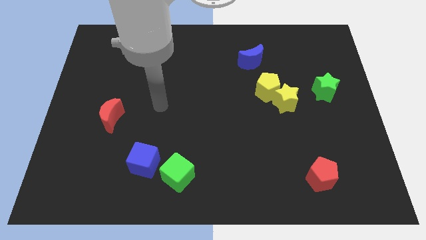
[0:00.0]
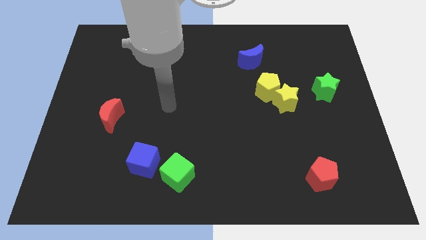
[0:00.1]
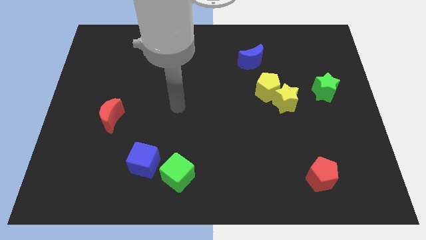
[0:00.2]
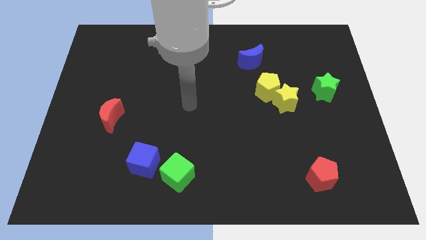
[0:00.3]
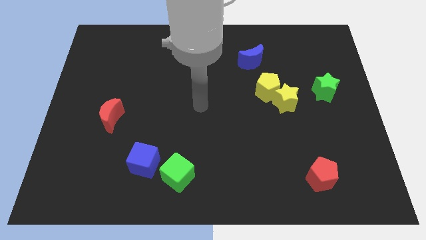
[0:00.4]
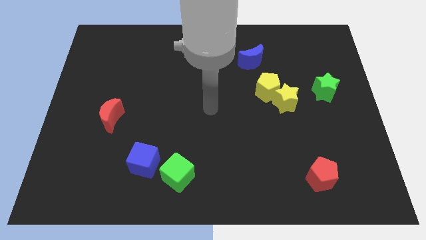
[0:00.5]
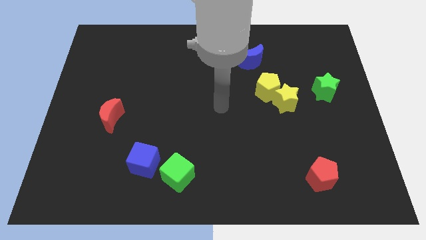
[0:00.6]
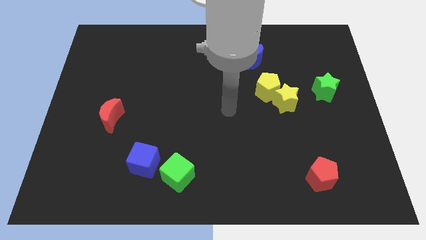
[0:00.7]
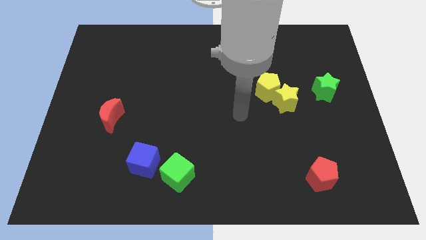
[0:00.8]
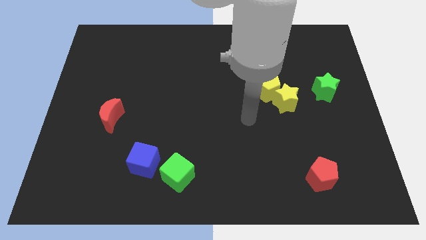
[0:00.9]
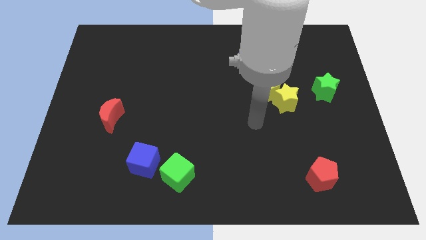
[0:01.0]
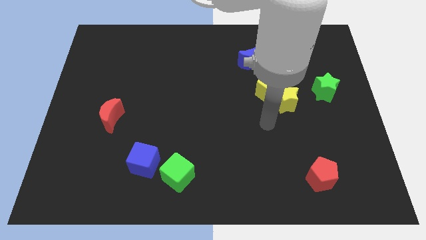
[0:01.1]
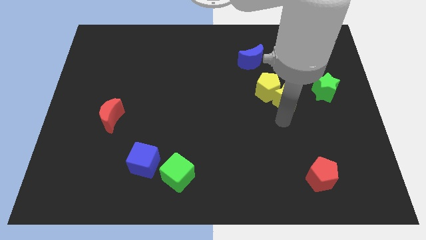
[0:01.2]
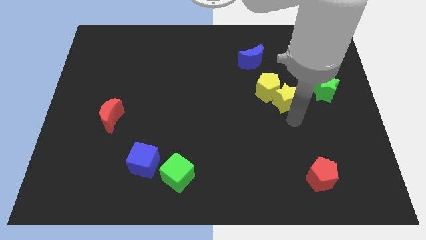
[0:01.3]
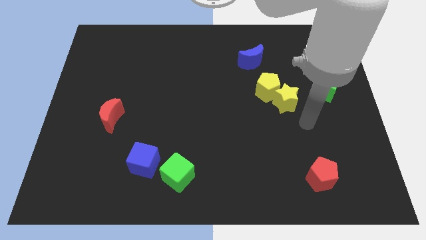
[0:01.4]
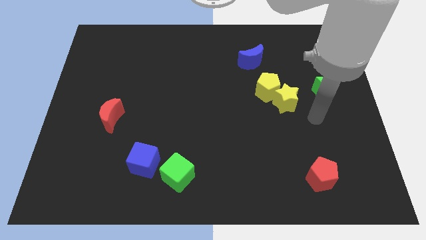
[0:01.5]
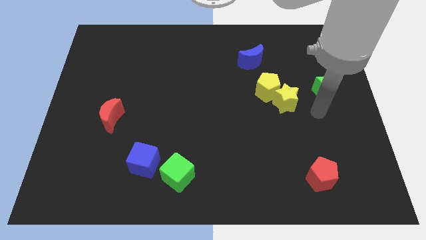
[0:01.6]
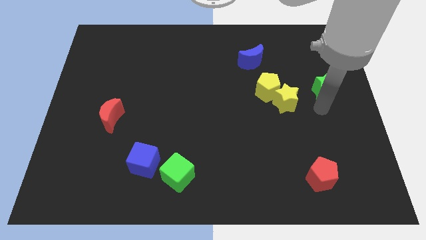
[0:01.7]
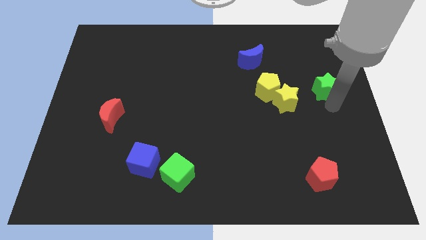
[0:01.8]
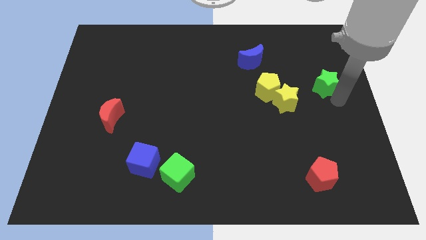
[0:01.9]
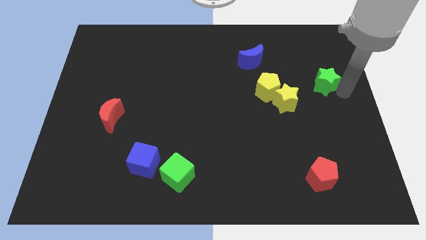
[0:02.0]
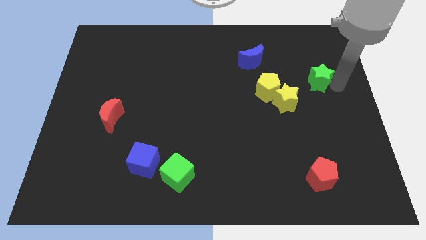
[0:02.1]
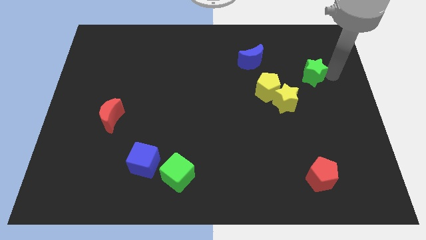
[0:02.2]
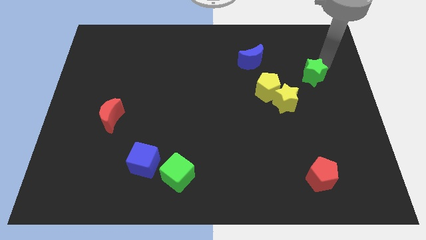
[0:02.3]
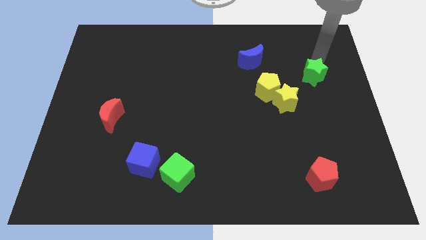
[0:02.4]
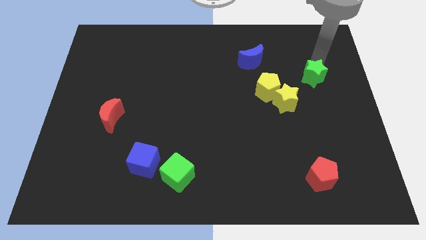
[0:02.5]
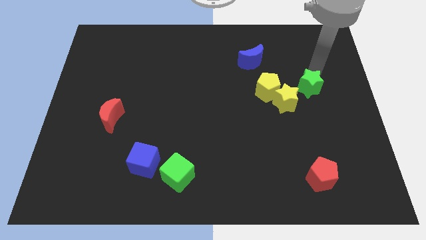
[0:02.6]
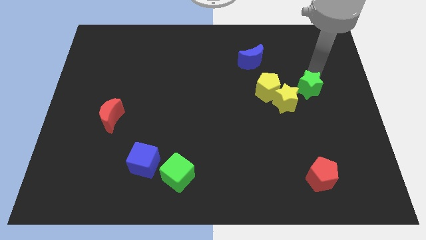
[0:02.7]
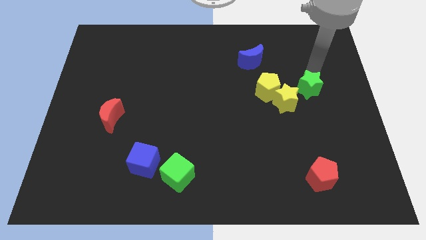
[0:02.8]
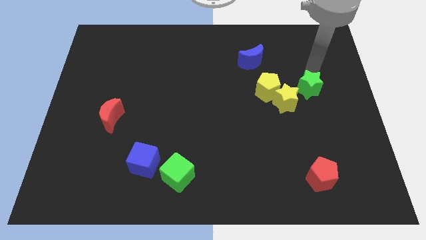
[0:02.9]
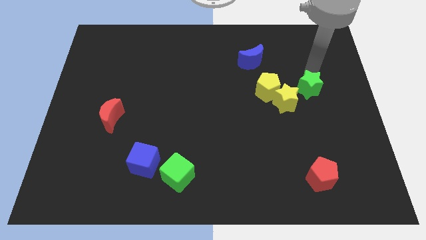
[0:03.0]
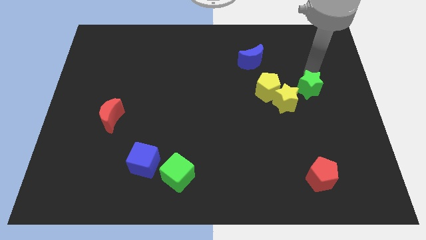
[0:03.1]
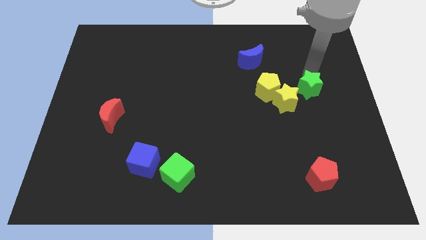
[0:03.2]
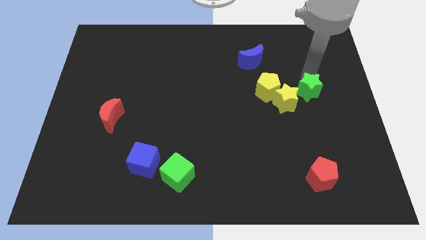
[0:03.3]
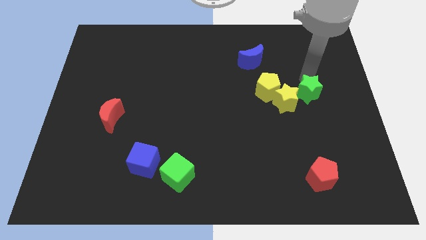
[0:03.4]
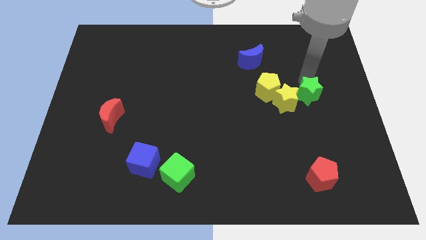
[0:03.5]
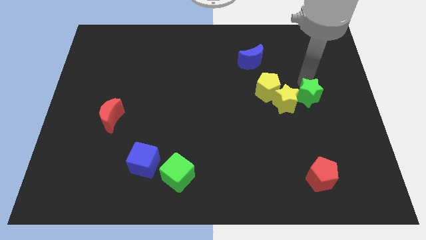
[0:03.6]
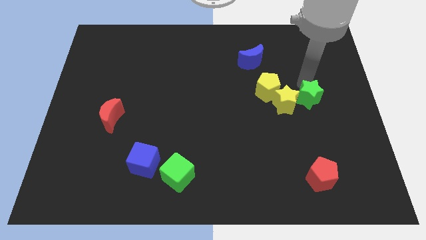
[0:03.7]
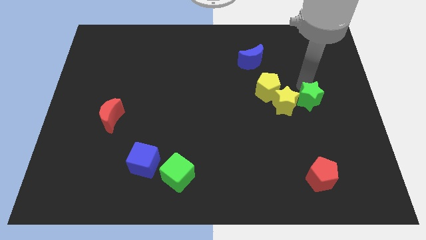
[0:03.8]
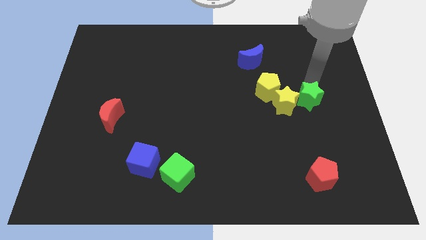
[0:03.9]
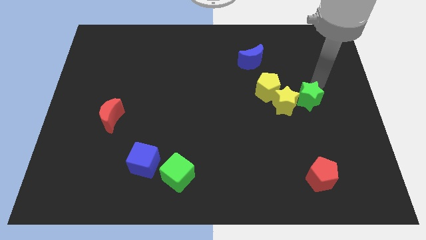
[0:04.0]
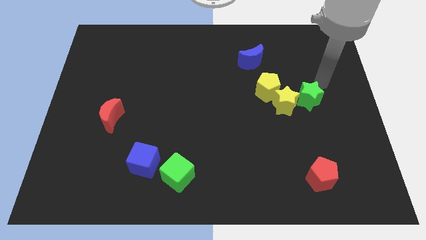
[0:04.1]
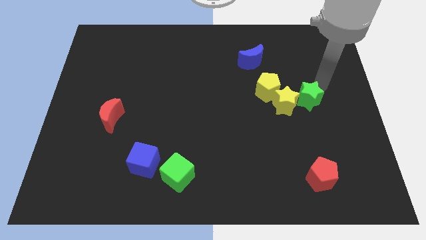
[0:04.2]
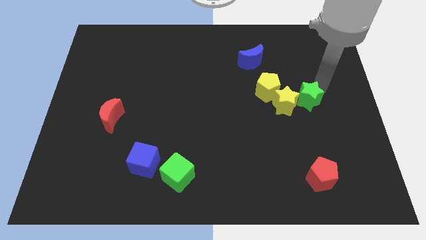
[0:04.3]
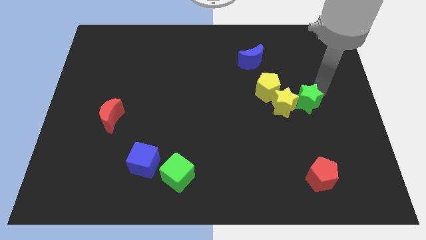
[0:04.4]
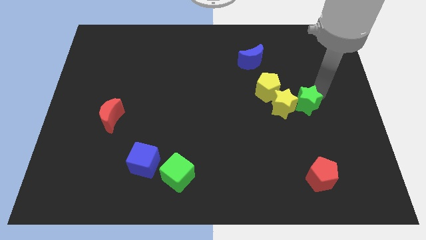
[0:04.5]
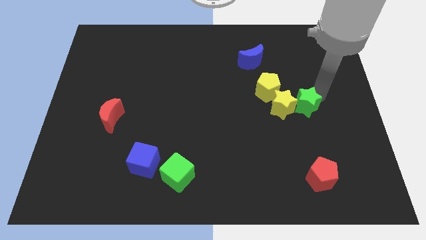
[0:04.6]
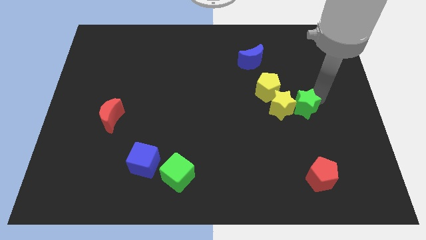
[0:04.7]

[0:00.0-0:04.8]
move the green star a little down and left

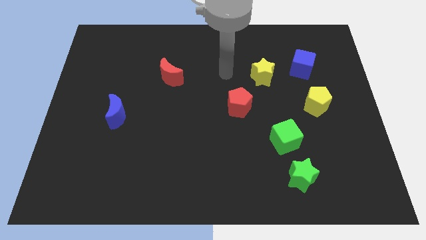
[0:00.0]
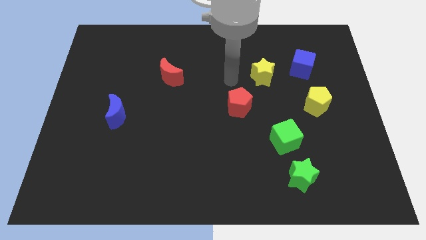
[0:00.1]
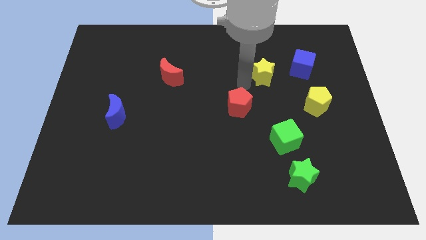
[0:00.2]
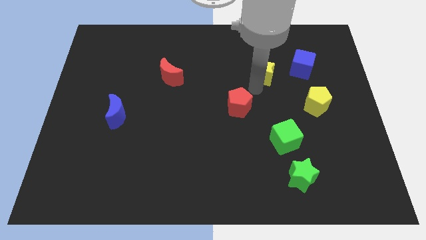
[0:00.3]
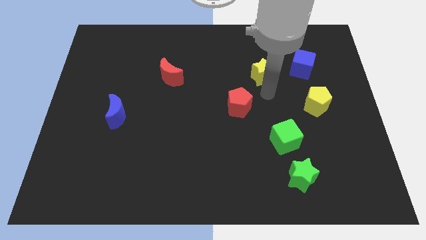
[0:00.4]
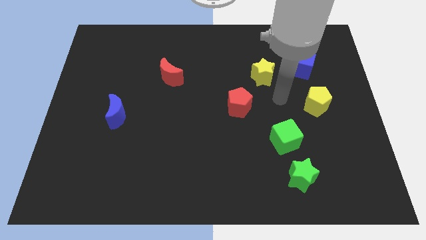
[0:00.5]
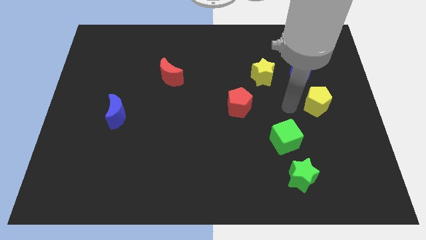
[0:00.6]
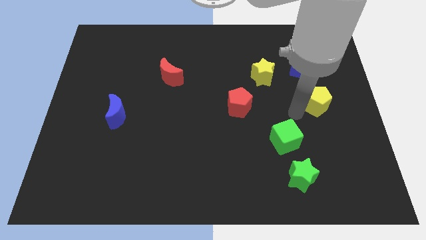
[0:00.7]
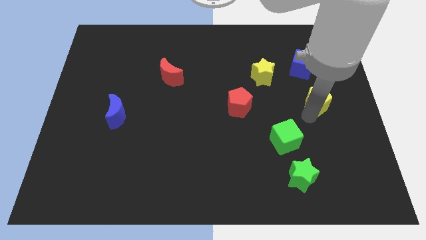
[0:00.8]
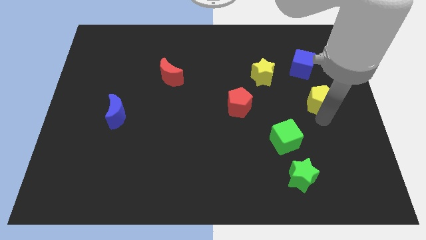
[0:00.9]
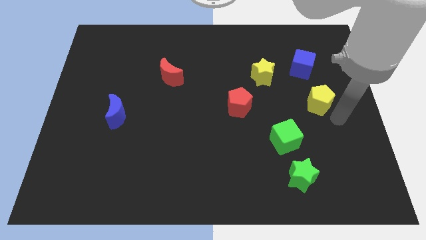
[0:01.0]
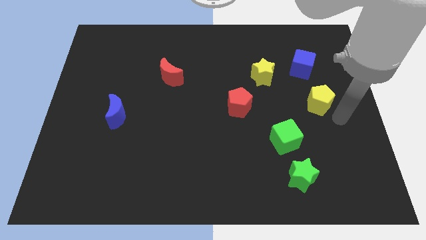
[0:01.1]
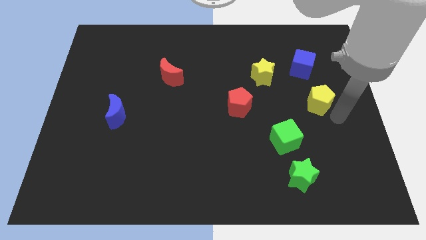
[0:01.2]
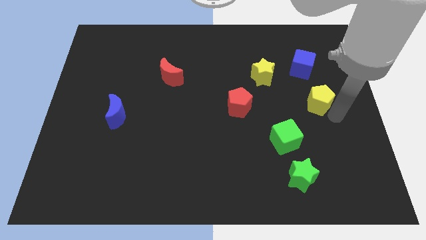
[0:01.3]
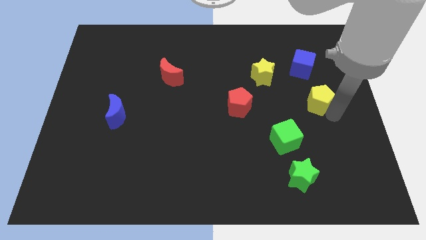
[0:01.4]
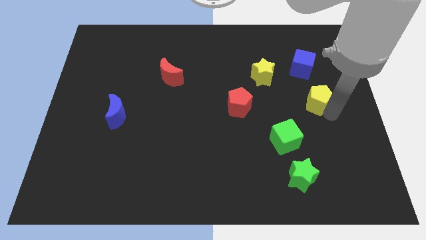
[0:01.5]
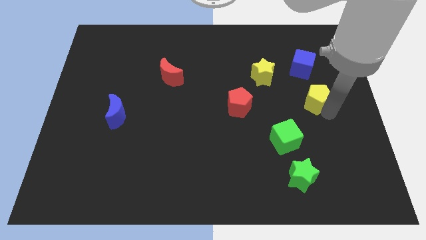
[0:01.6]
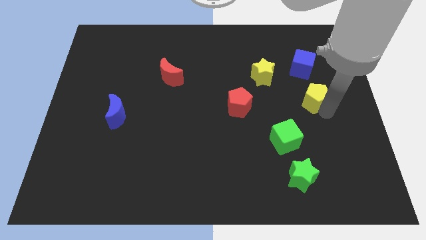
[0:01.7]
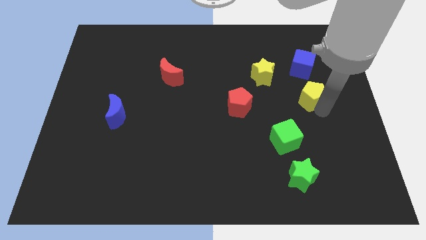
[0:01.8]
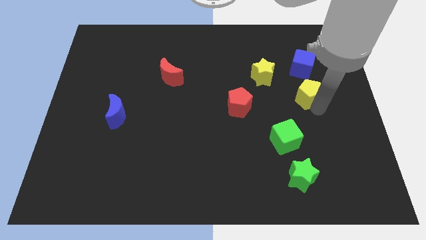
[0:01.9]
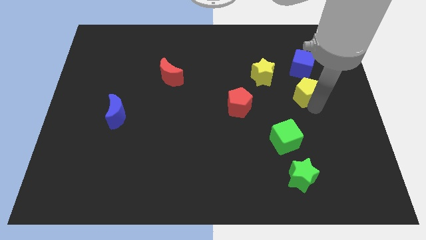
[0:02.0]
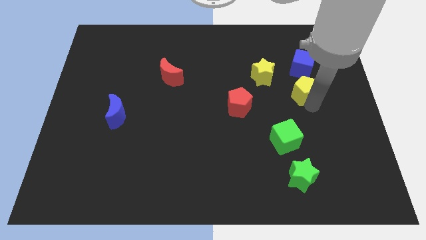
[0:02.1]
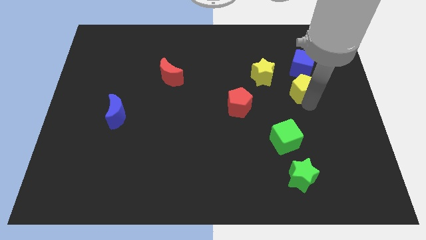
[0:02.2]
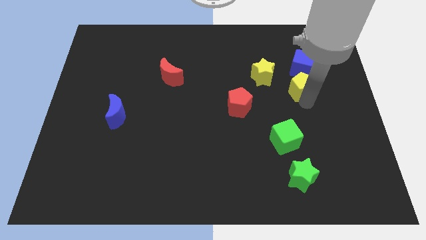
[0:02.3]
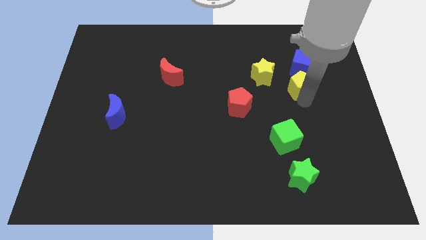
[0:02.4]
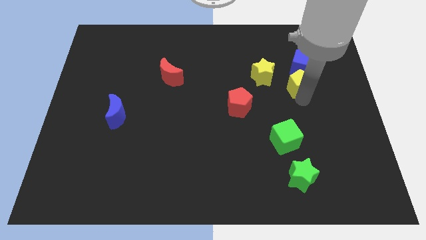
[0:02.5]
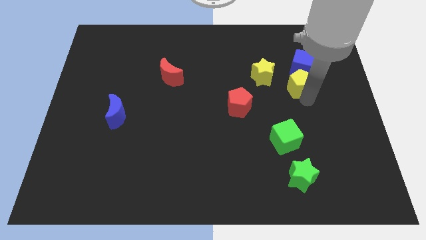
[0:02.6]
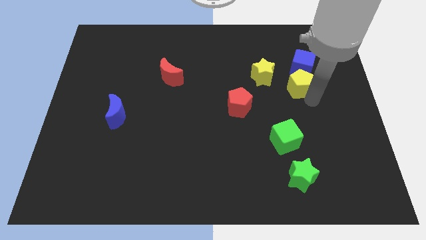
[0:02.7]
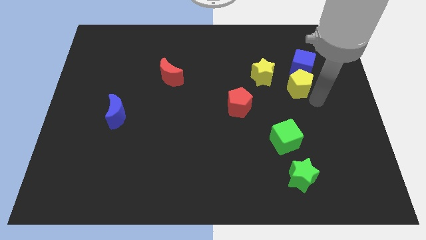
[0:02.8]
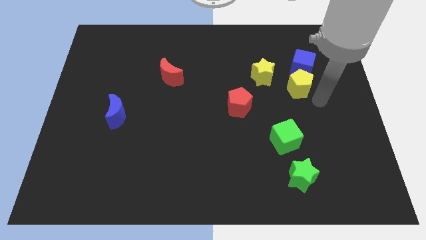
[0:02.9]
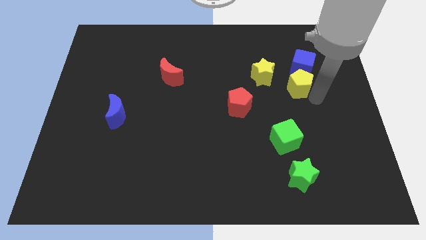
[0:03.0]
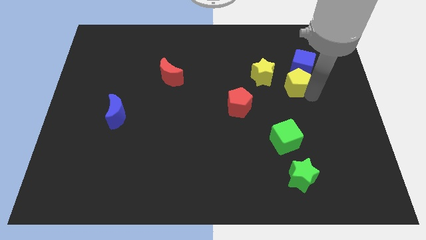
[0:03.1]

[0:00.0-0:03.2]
slide the yellow pentagon diagonally up and to the left slightly
